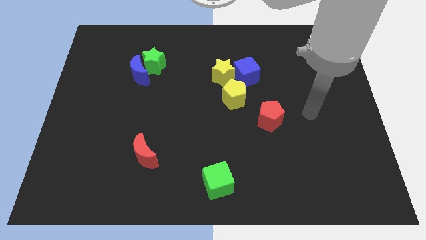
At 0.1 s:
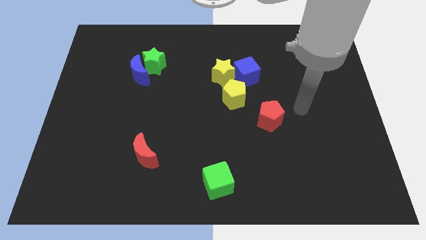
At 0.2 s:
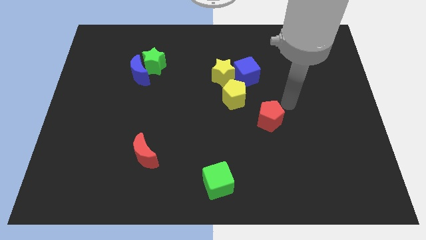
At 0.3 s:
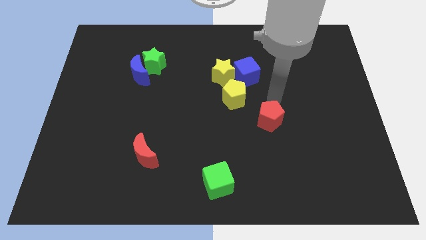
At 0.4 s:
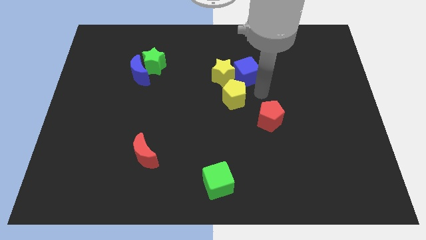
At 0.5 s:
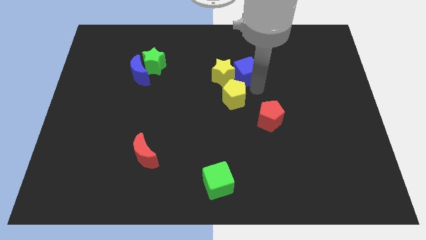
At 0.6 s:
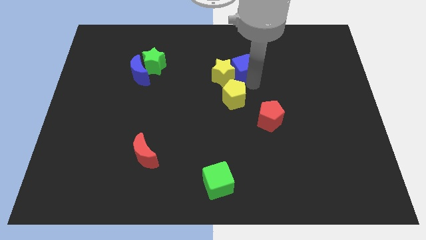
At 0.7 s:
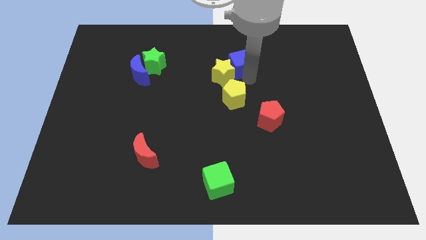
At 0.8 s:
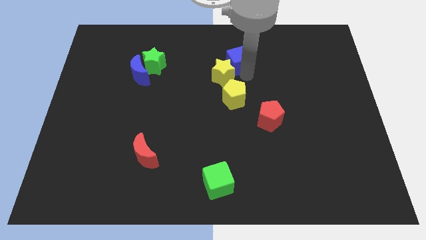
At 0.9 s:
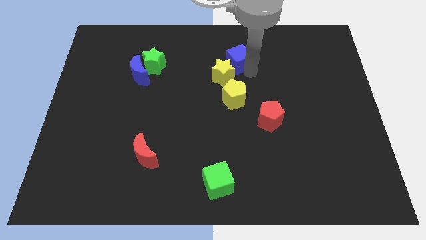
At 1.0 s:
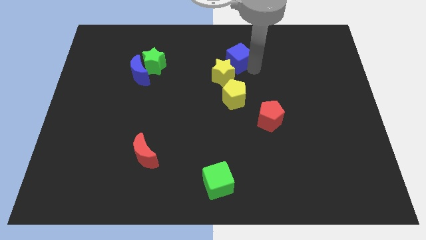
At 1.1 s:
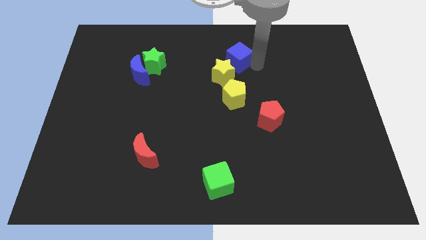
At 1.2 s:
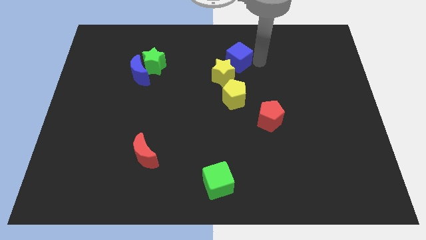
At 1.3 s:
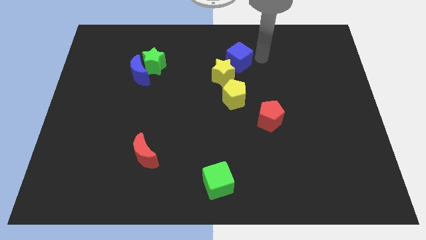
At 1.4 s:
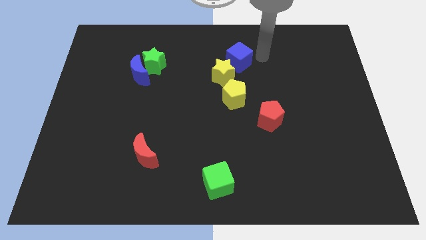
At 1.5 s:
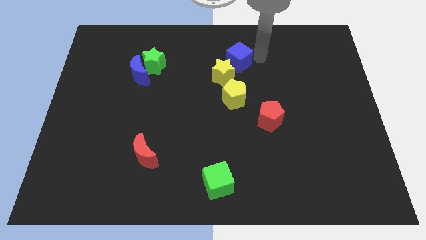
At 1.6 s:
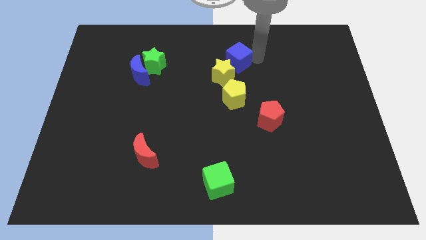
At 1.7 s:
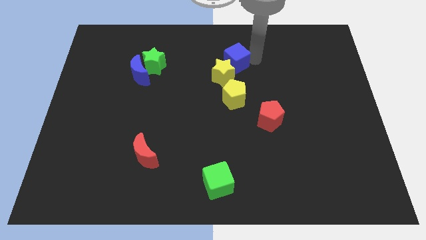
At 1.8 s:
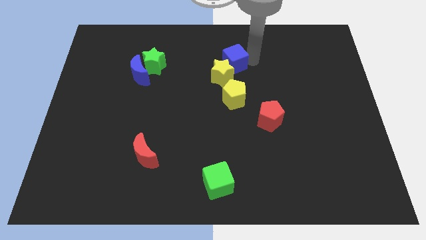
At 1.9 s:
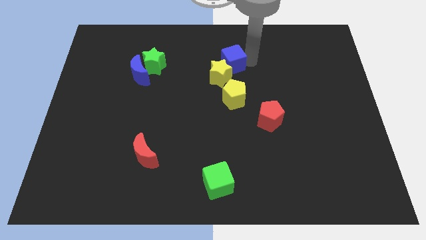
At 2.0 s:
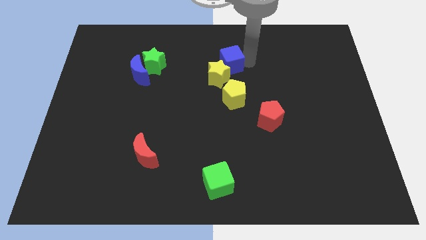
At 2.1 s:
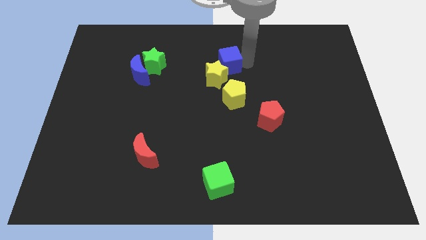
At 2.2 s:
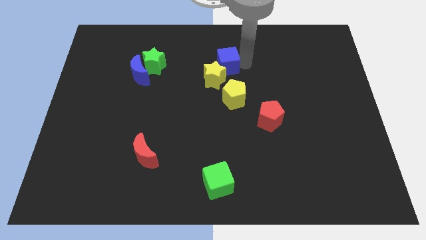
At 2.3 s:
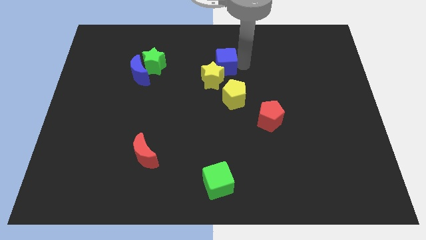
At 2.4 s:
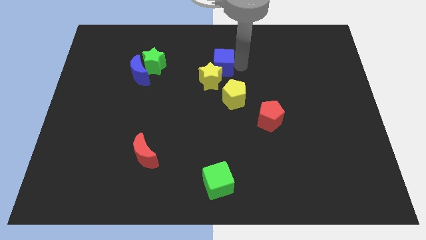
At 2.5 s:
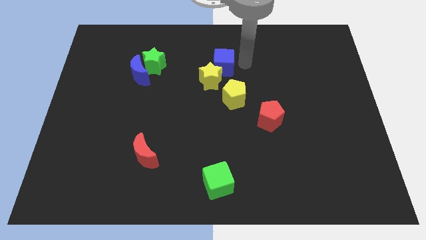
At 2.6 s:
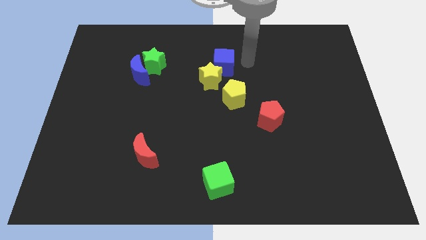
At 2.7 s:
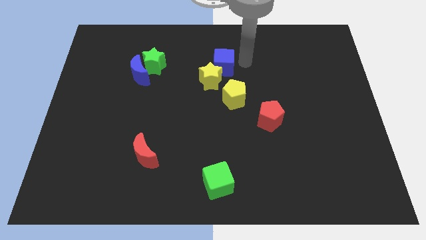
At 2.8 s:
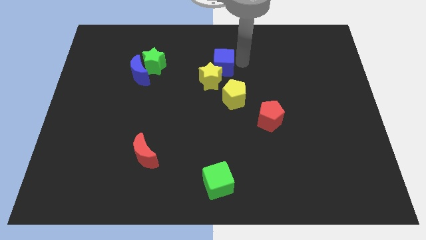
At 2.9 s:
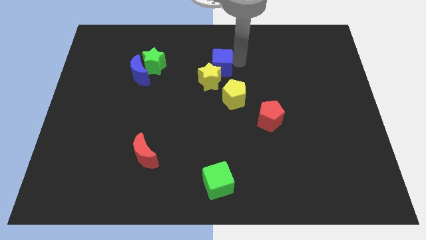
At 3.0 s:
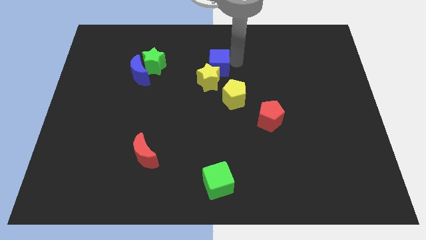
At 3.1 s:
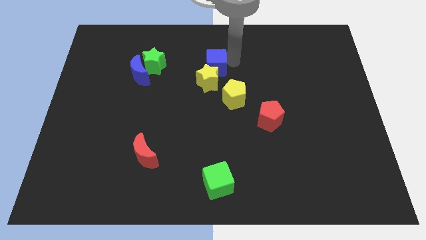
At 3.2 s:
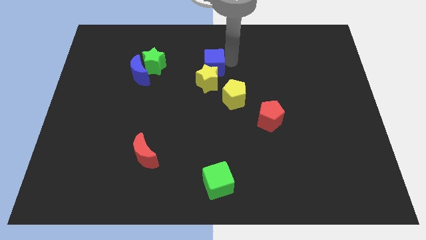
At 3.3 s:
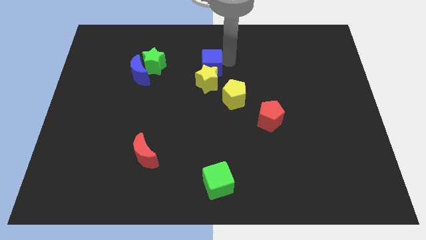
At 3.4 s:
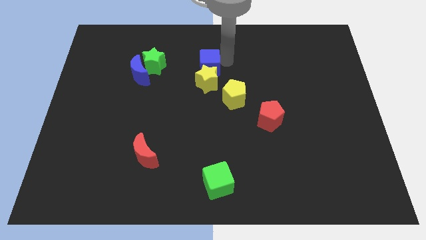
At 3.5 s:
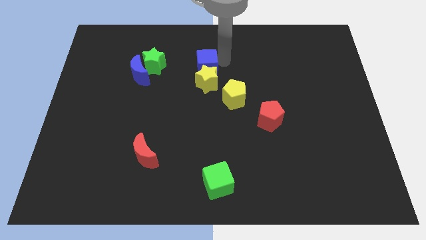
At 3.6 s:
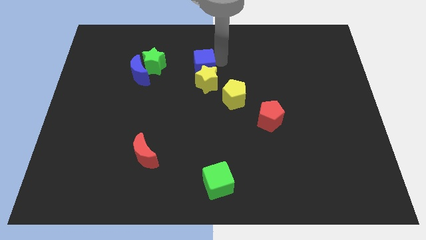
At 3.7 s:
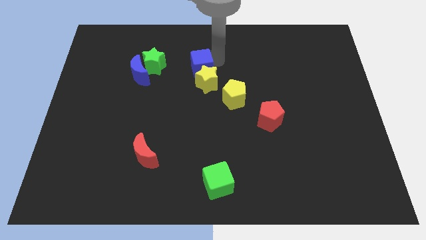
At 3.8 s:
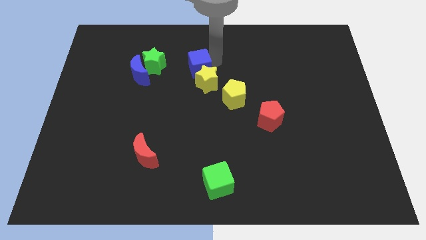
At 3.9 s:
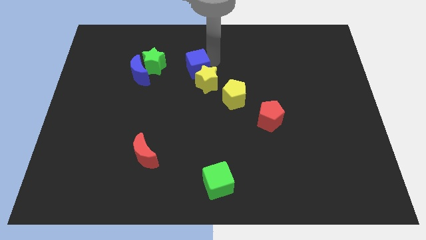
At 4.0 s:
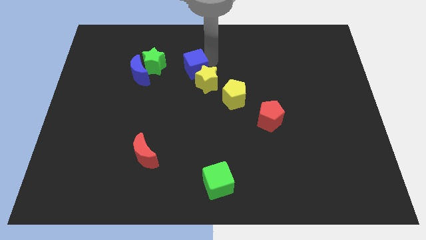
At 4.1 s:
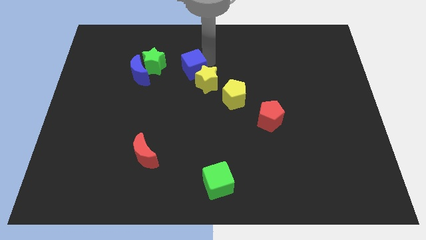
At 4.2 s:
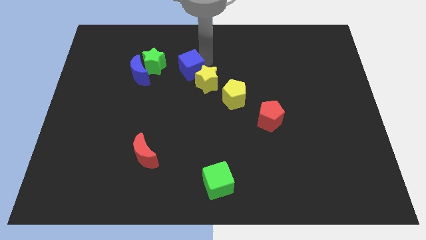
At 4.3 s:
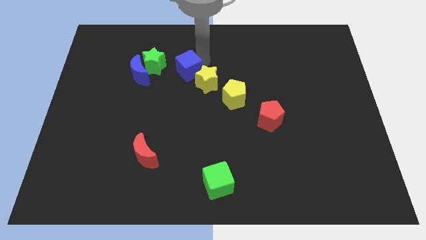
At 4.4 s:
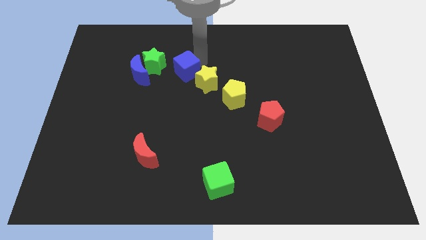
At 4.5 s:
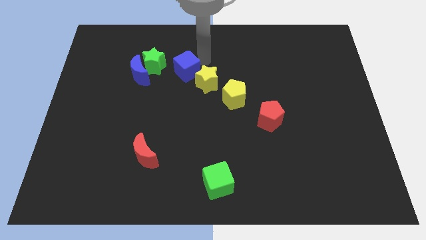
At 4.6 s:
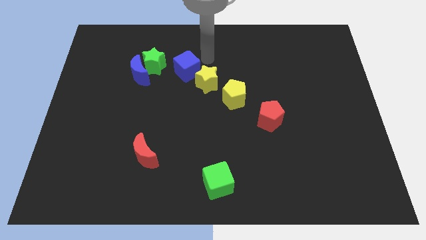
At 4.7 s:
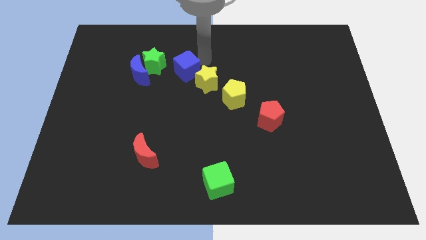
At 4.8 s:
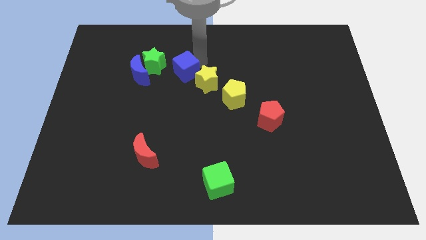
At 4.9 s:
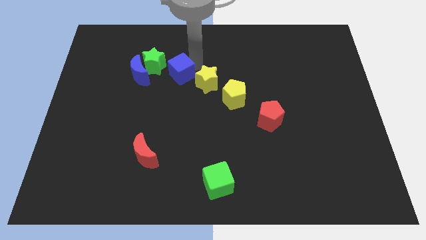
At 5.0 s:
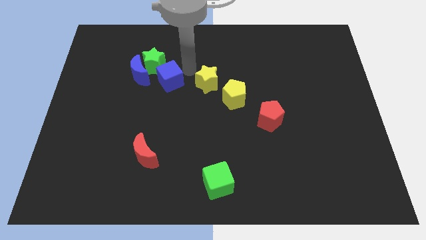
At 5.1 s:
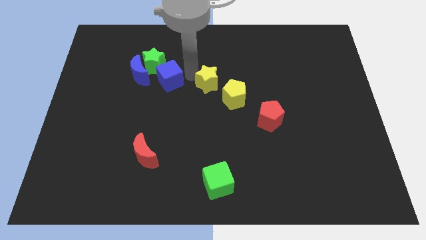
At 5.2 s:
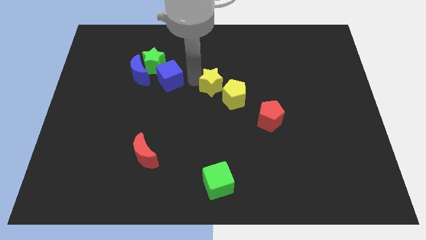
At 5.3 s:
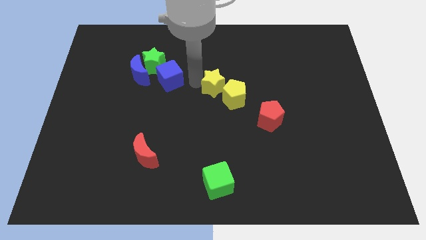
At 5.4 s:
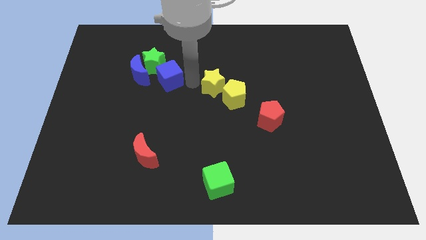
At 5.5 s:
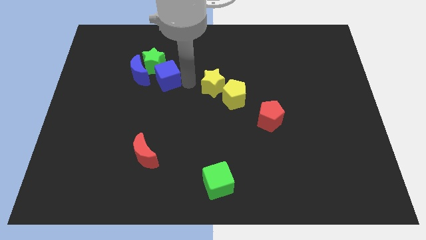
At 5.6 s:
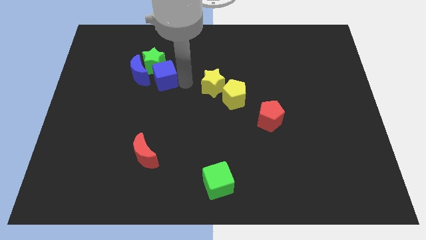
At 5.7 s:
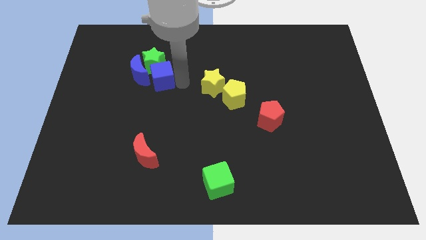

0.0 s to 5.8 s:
move the blue cube to the blue moon

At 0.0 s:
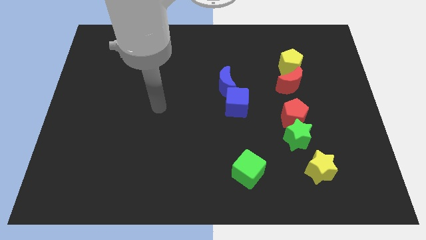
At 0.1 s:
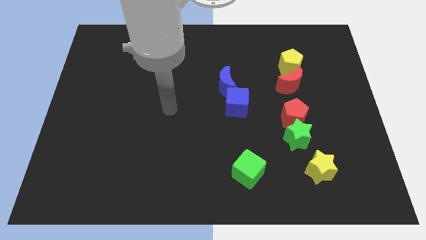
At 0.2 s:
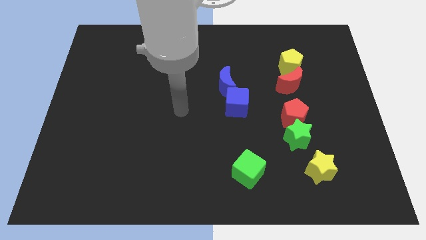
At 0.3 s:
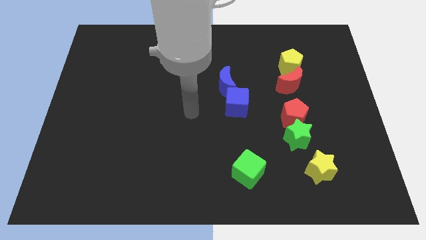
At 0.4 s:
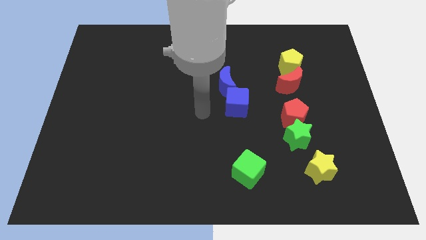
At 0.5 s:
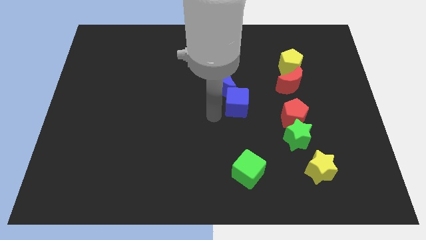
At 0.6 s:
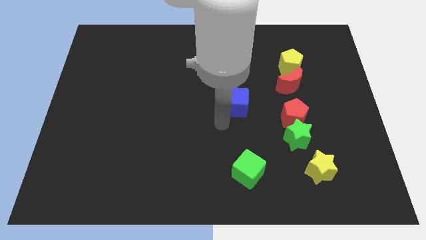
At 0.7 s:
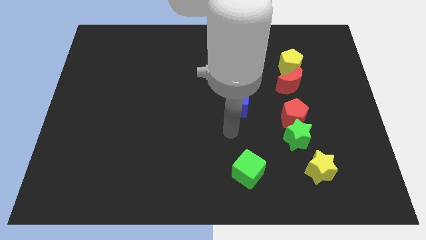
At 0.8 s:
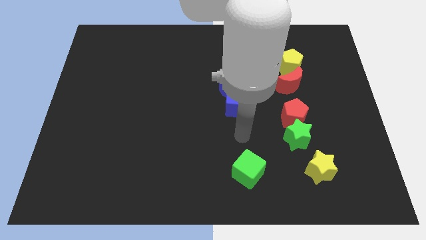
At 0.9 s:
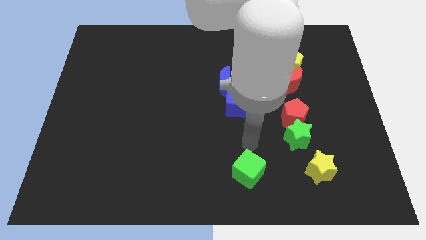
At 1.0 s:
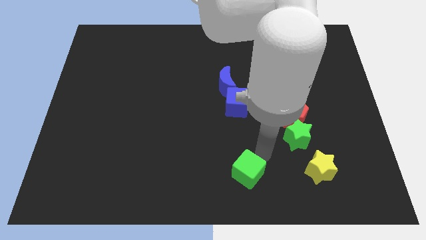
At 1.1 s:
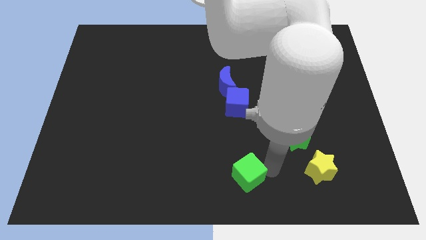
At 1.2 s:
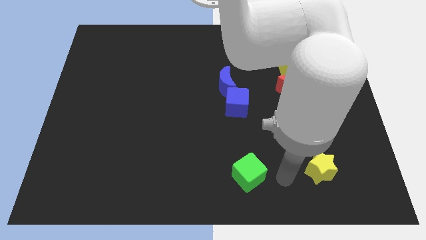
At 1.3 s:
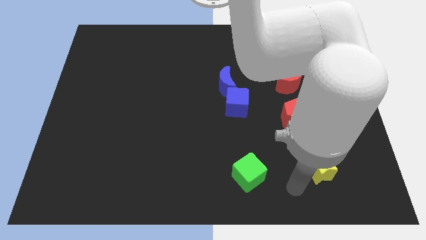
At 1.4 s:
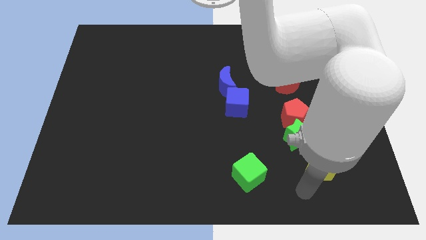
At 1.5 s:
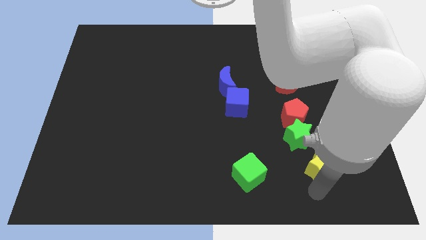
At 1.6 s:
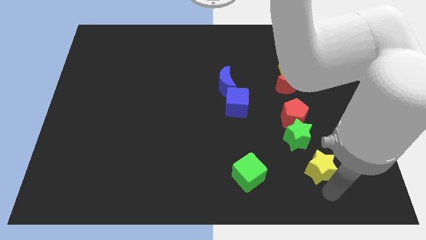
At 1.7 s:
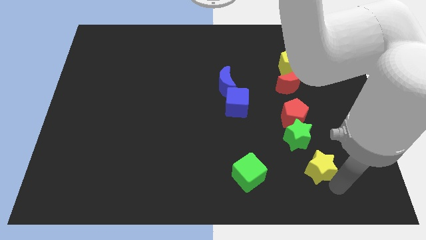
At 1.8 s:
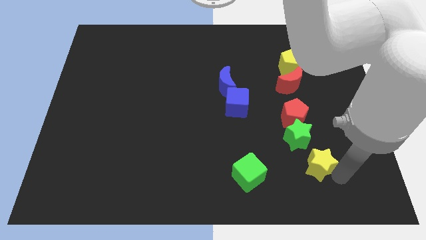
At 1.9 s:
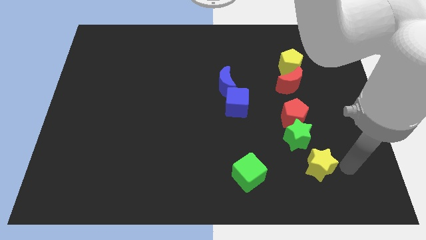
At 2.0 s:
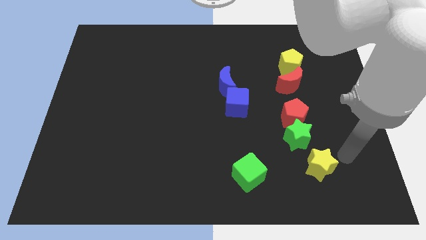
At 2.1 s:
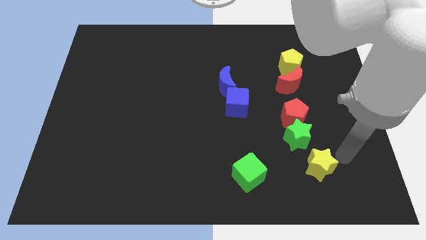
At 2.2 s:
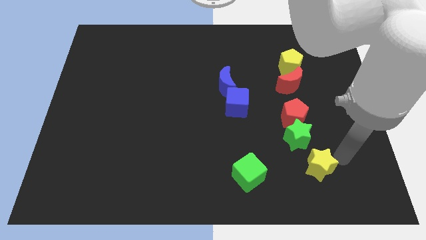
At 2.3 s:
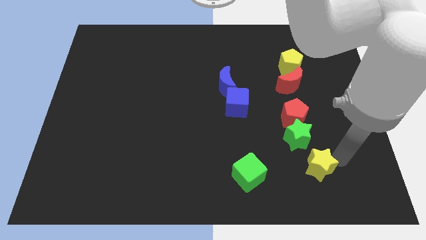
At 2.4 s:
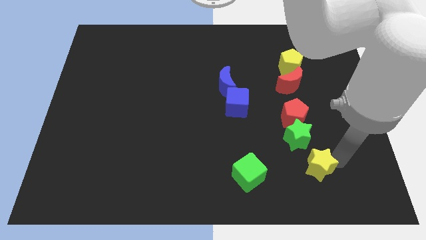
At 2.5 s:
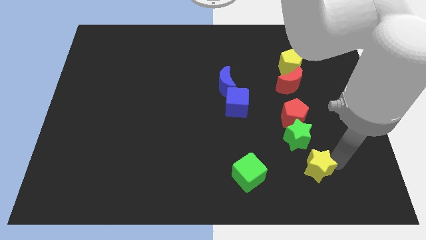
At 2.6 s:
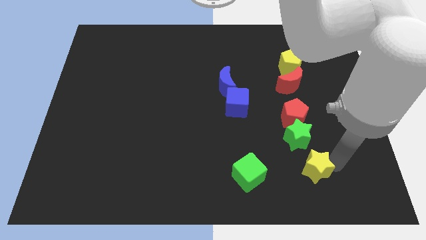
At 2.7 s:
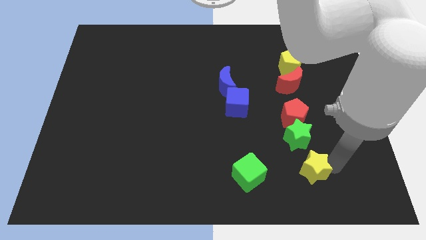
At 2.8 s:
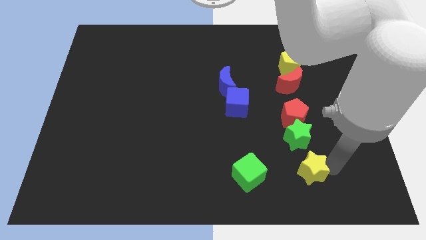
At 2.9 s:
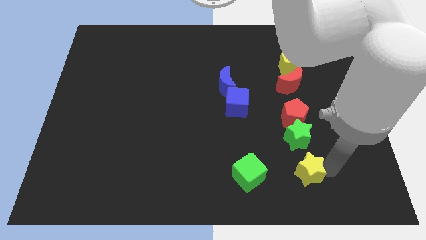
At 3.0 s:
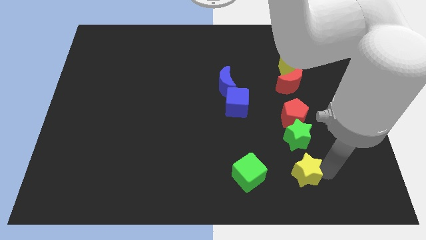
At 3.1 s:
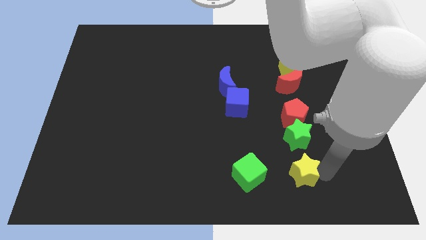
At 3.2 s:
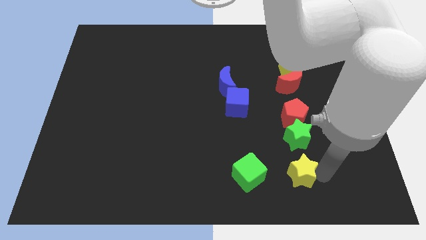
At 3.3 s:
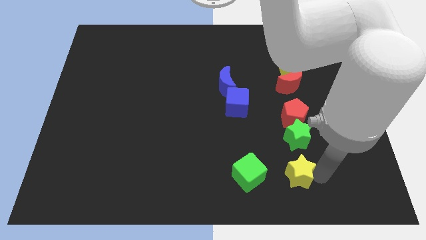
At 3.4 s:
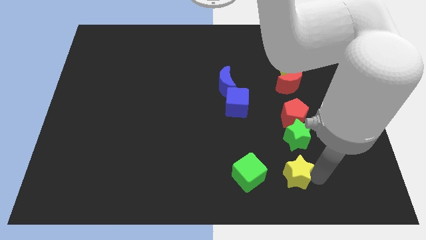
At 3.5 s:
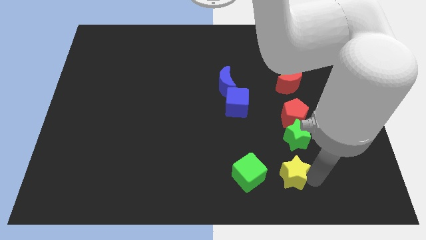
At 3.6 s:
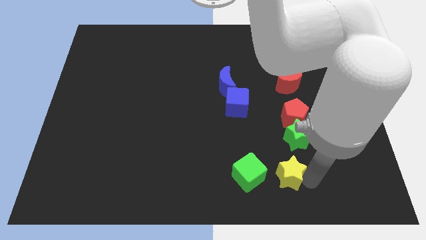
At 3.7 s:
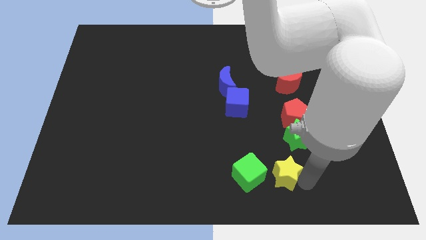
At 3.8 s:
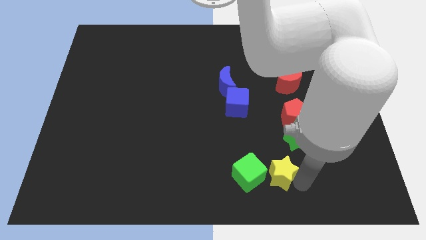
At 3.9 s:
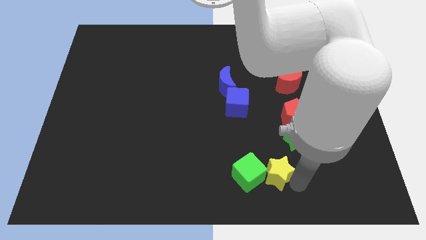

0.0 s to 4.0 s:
put the yellow star towards the green cube
